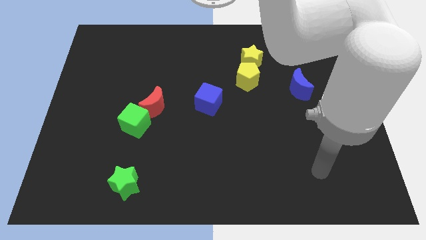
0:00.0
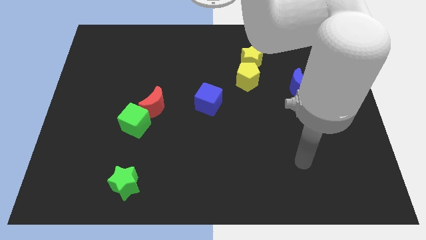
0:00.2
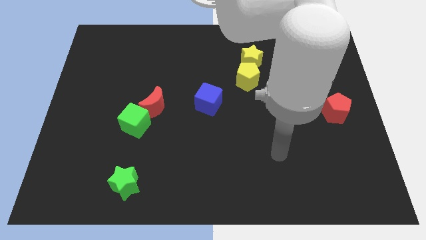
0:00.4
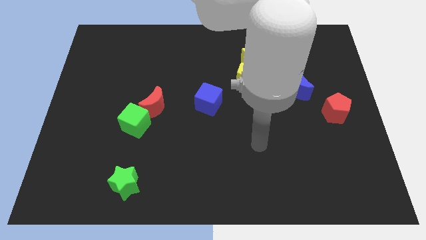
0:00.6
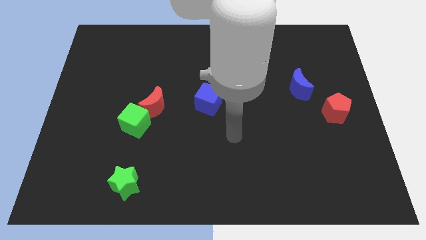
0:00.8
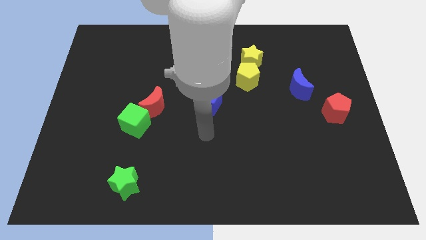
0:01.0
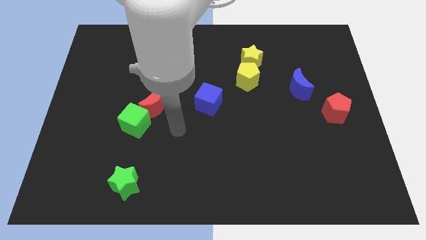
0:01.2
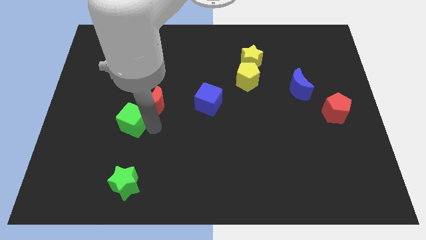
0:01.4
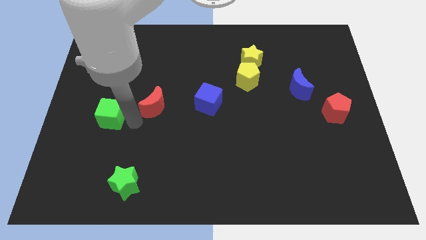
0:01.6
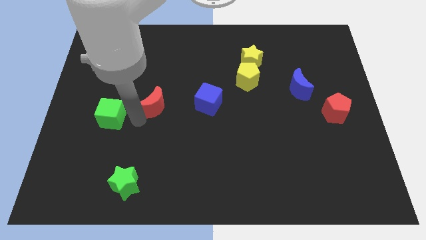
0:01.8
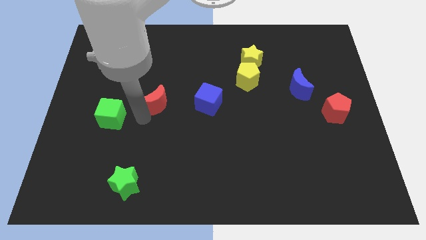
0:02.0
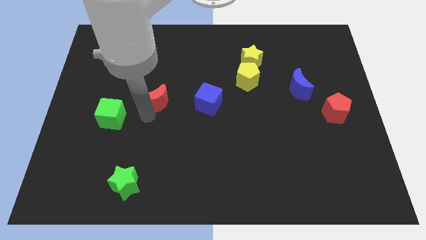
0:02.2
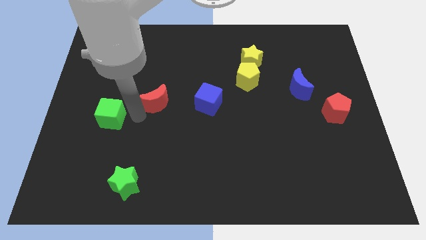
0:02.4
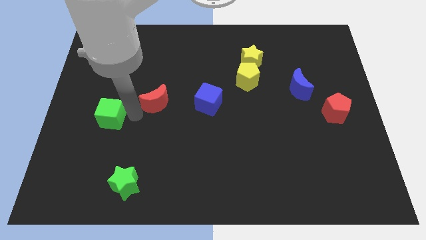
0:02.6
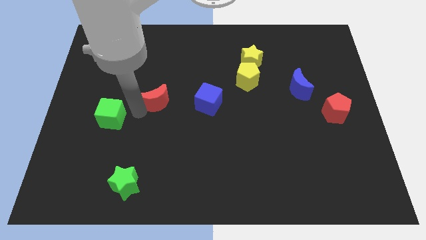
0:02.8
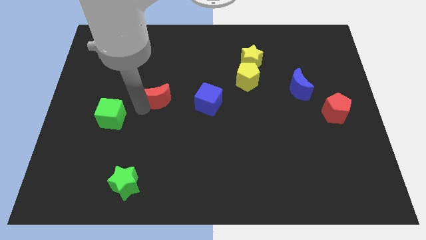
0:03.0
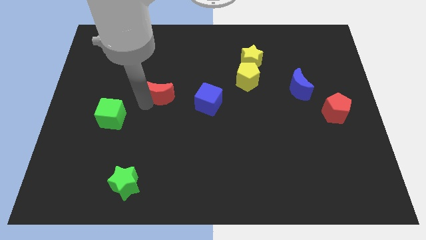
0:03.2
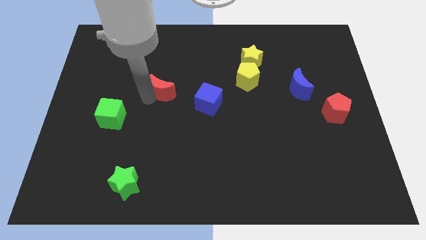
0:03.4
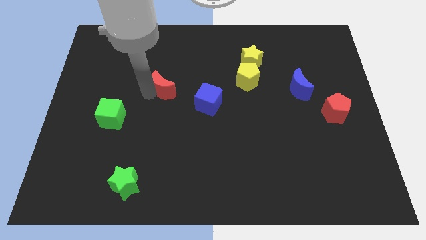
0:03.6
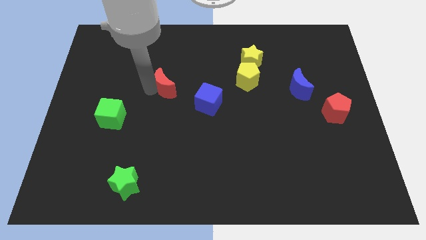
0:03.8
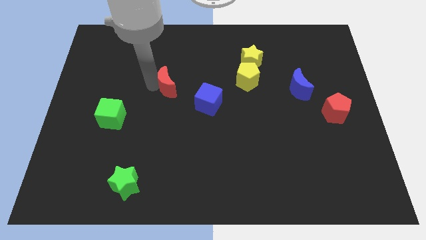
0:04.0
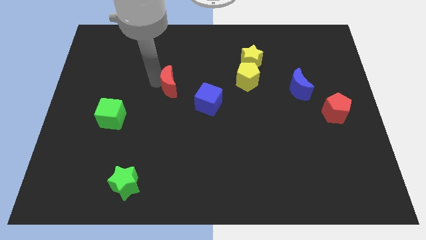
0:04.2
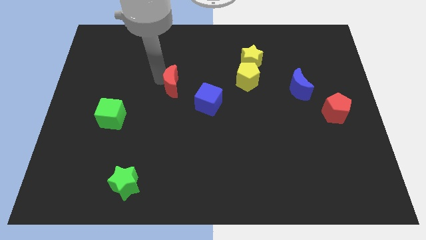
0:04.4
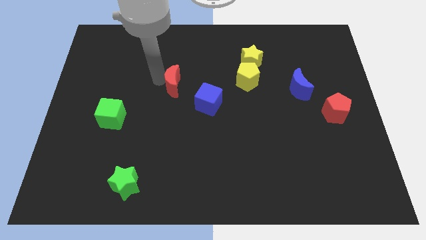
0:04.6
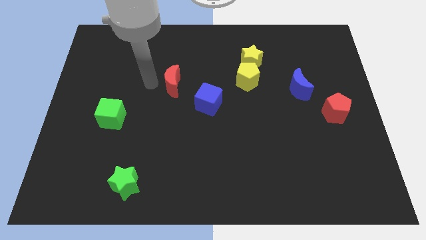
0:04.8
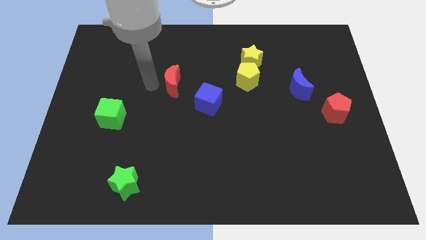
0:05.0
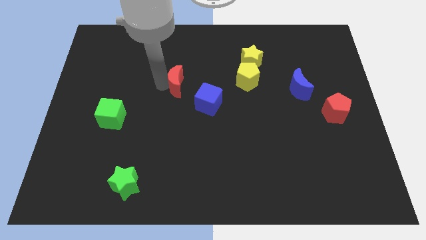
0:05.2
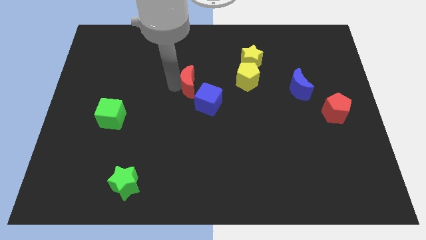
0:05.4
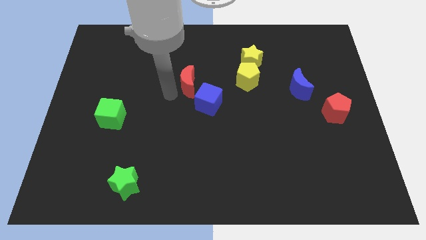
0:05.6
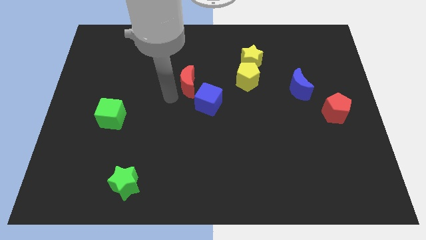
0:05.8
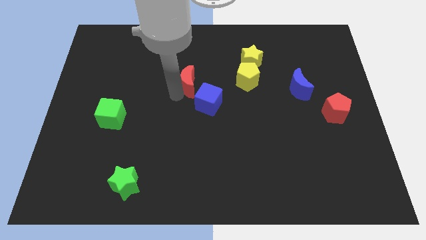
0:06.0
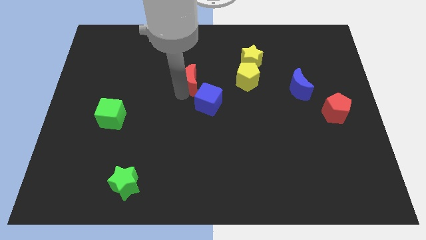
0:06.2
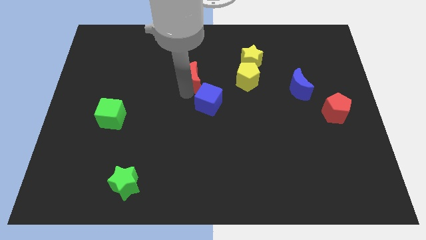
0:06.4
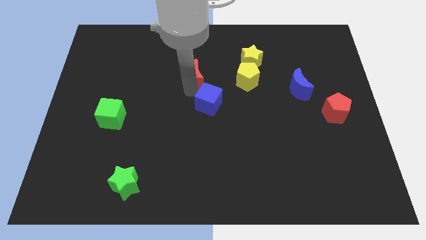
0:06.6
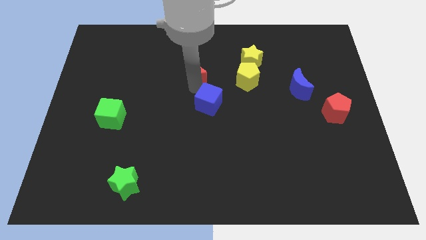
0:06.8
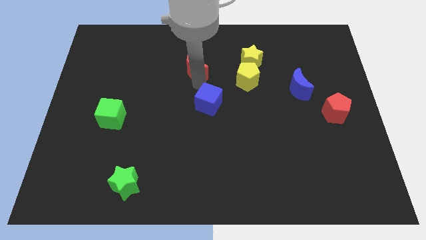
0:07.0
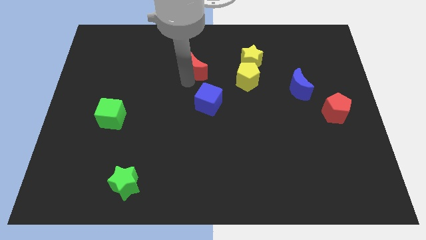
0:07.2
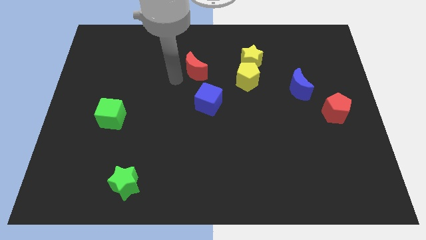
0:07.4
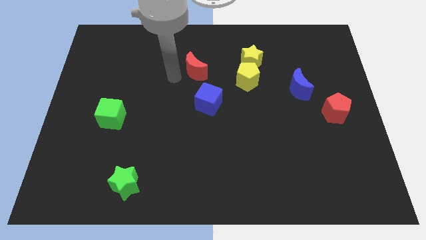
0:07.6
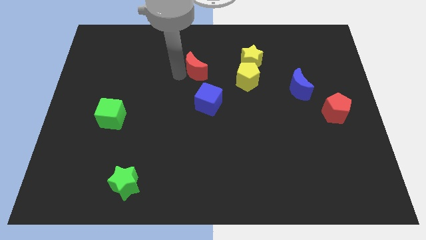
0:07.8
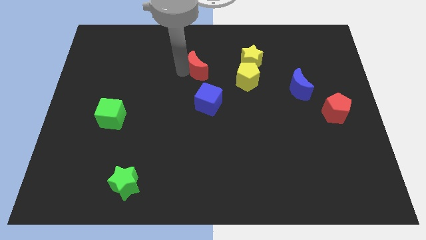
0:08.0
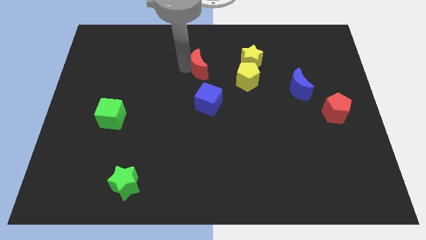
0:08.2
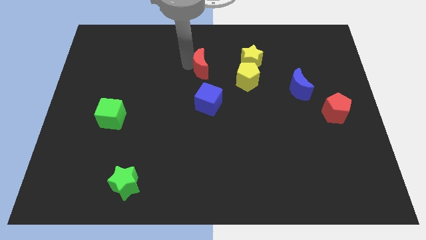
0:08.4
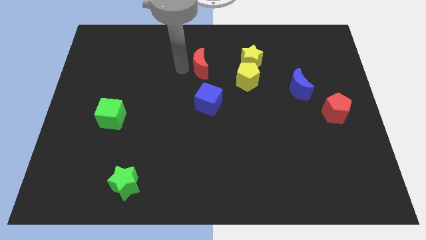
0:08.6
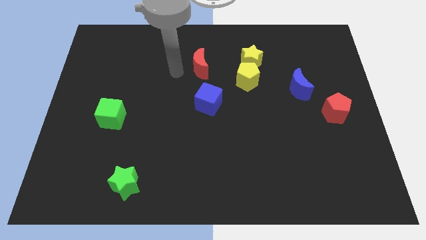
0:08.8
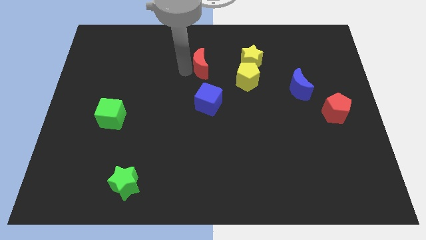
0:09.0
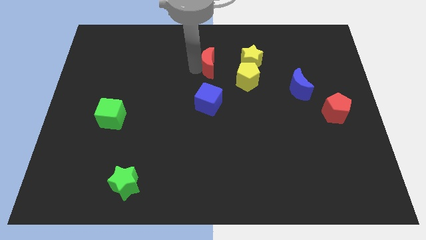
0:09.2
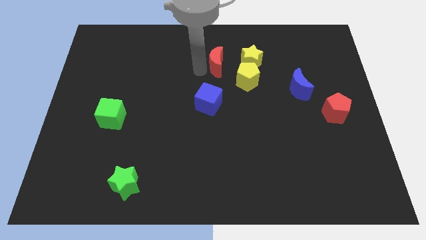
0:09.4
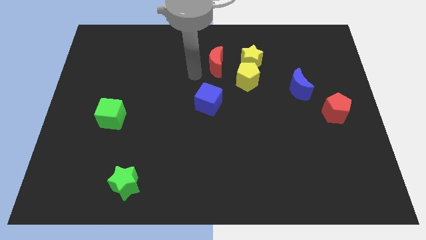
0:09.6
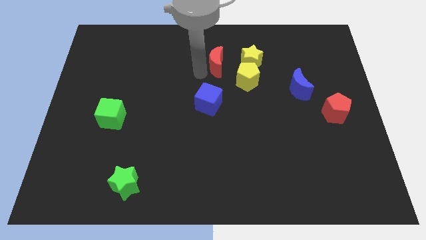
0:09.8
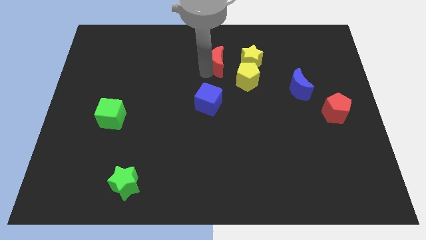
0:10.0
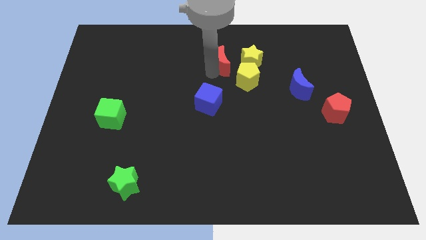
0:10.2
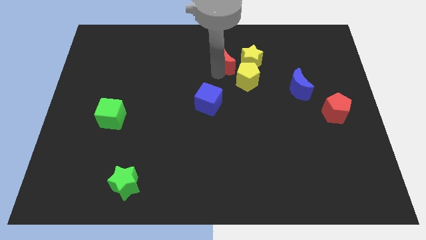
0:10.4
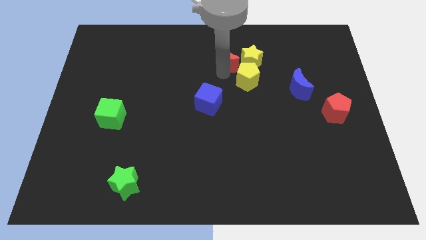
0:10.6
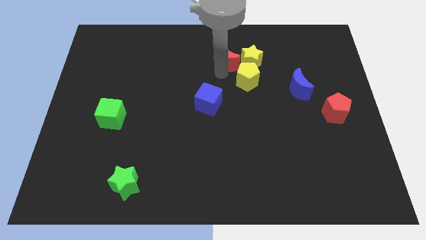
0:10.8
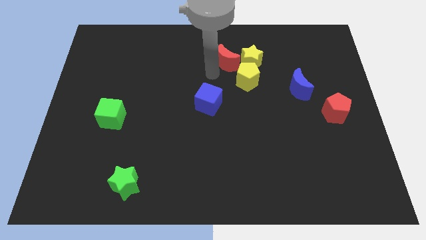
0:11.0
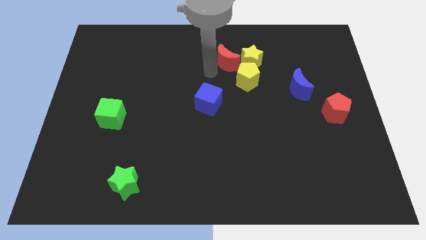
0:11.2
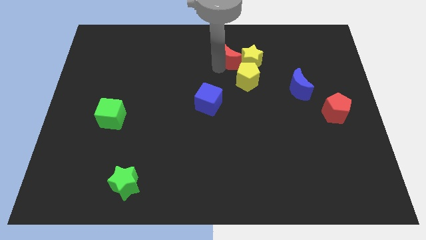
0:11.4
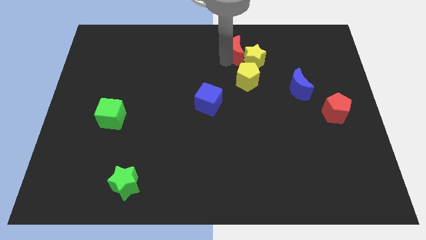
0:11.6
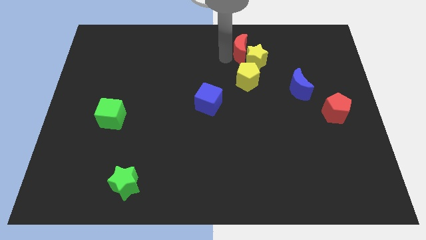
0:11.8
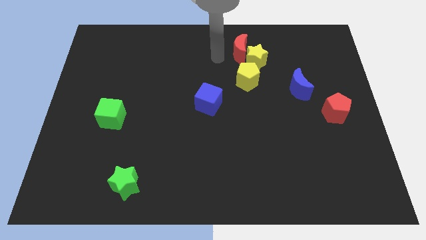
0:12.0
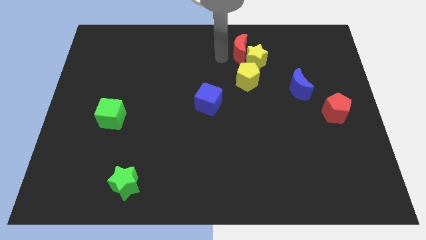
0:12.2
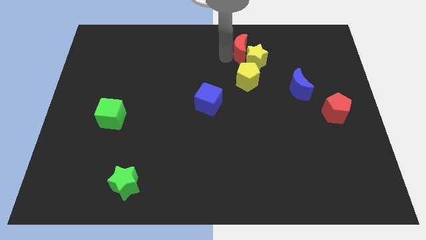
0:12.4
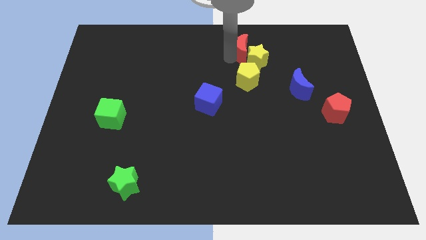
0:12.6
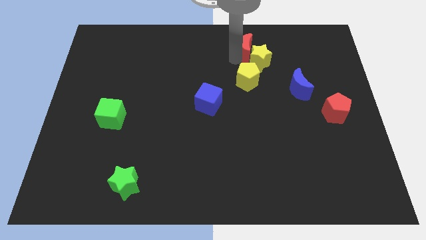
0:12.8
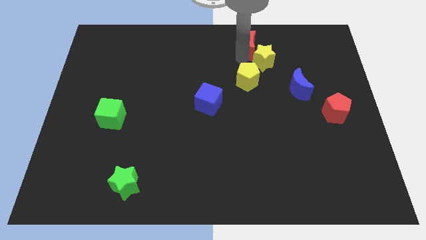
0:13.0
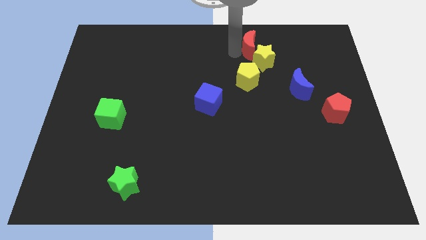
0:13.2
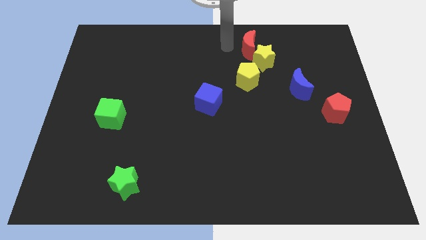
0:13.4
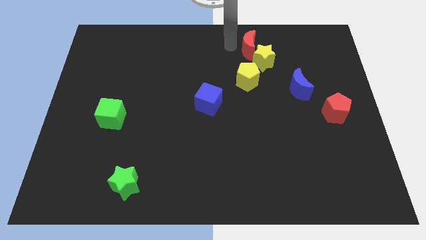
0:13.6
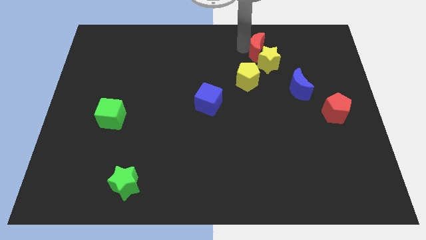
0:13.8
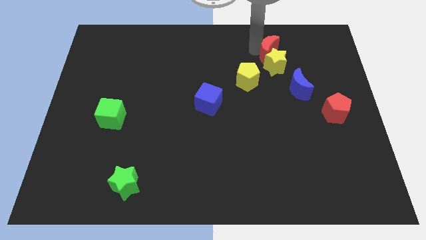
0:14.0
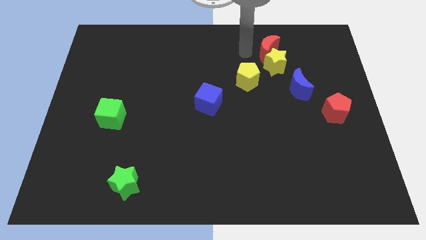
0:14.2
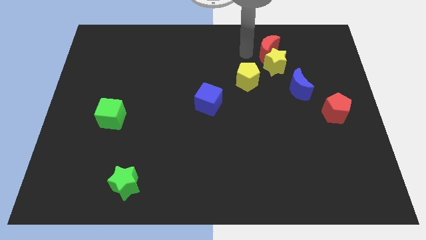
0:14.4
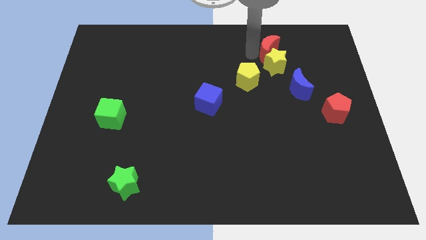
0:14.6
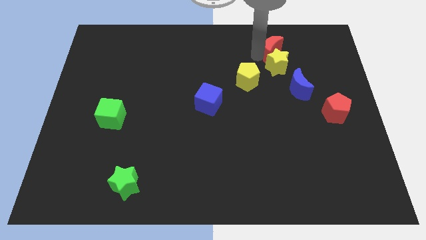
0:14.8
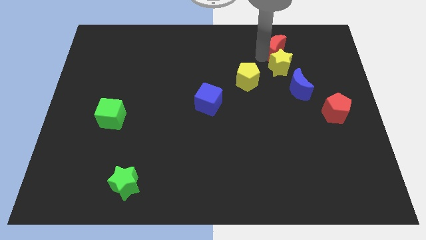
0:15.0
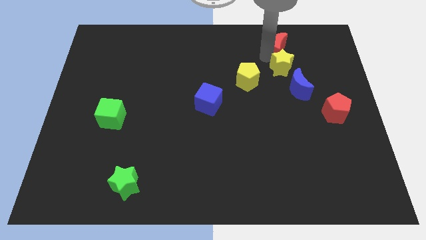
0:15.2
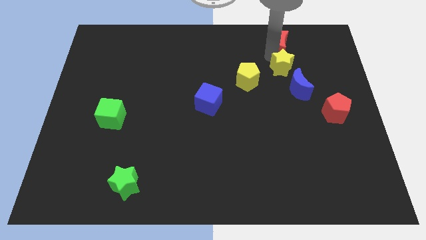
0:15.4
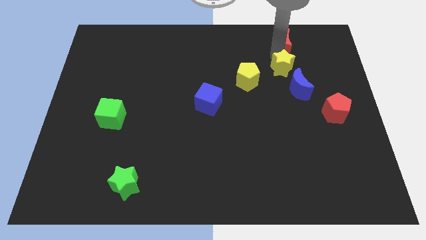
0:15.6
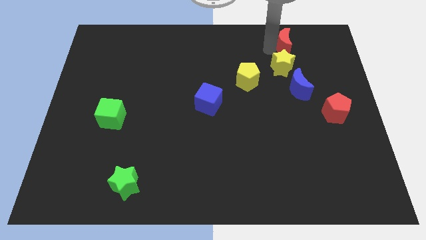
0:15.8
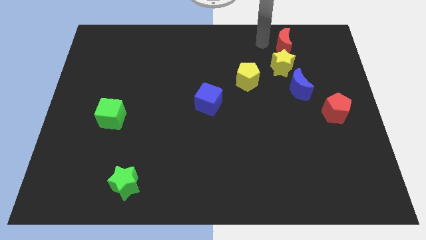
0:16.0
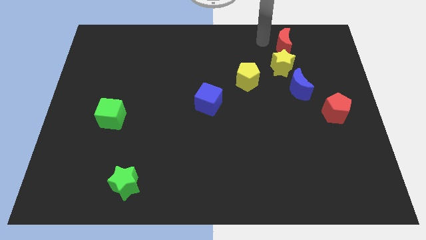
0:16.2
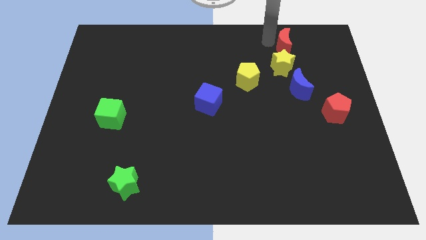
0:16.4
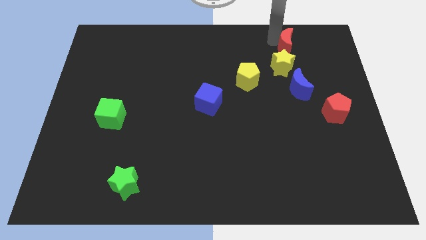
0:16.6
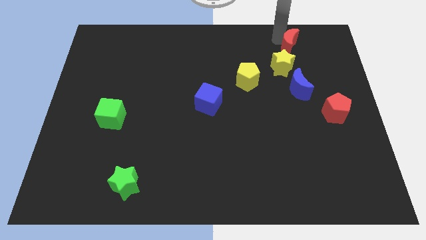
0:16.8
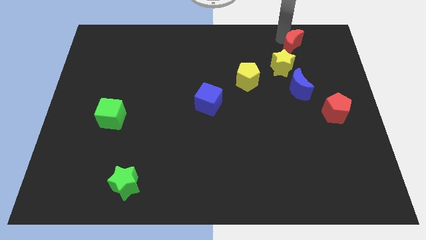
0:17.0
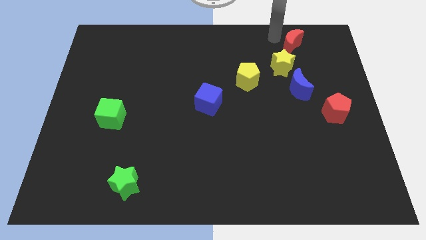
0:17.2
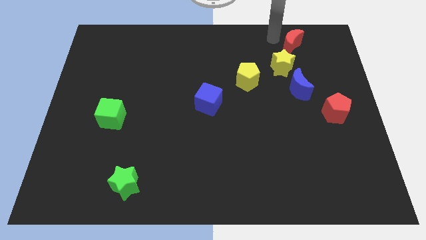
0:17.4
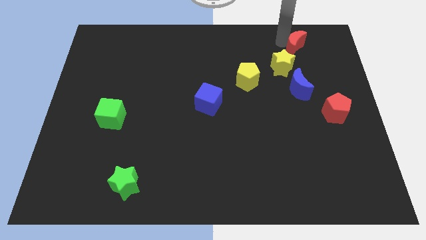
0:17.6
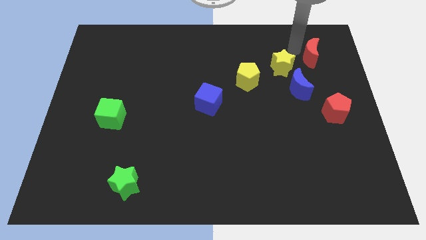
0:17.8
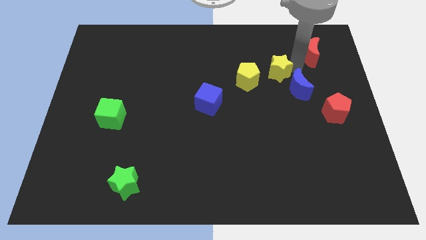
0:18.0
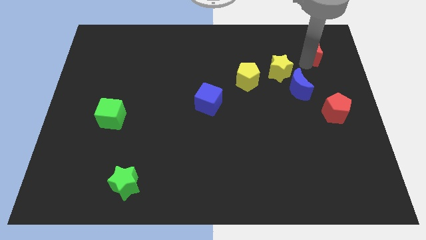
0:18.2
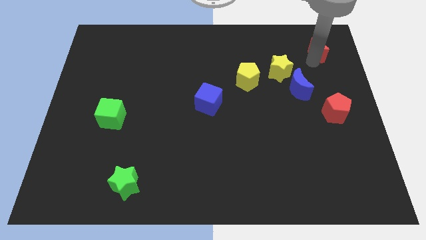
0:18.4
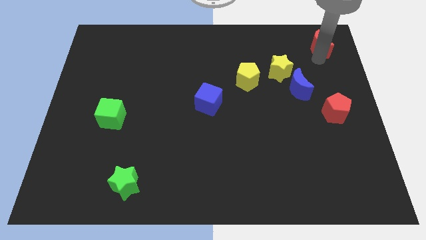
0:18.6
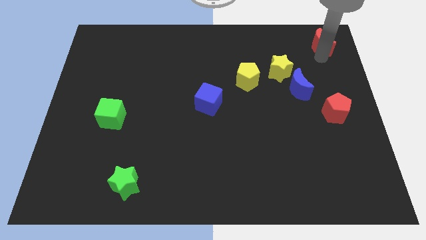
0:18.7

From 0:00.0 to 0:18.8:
put the red moon to the top right corner
